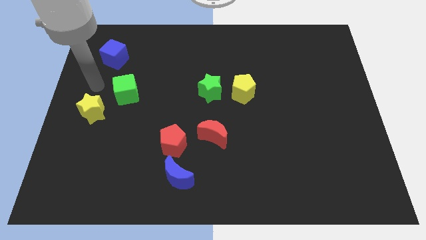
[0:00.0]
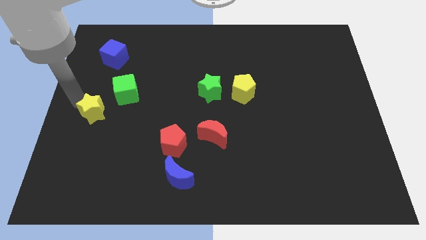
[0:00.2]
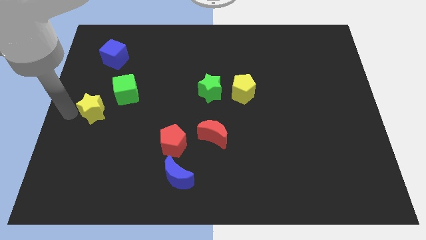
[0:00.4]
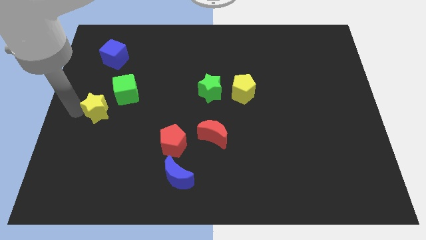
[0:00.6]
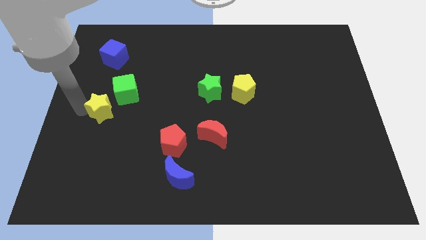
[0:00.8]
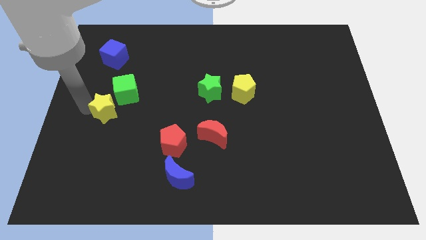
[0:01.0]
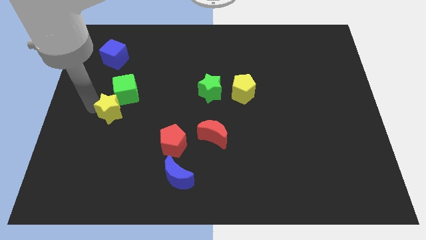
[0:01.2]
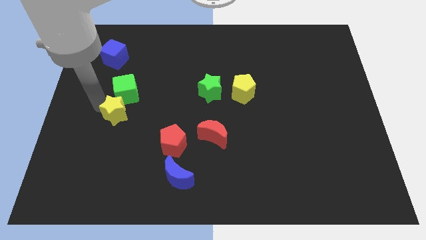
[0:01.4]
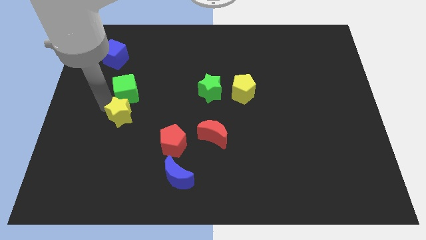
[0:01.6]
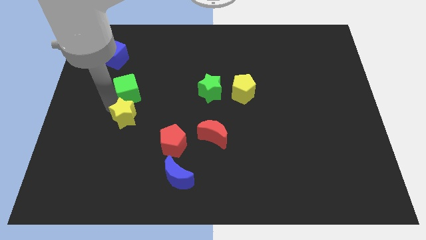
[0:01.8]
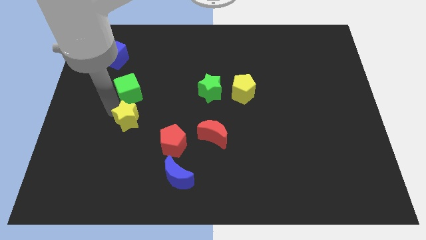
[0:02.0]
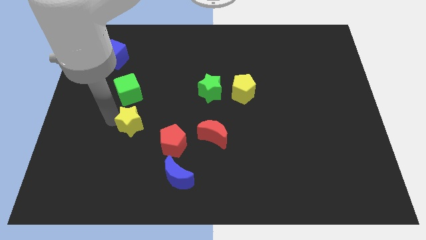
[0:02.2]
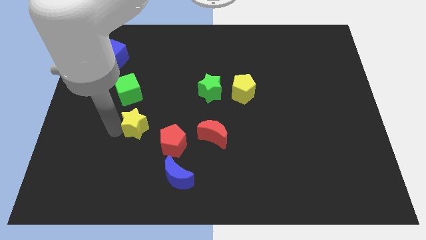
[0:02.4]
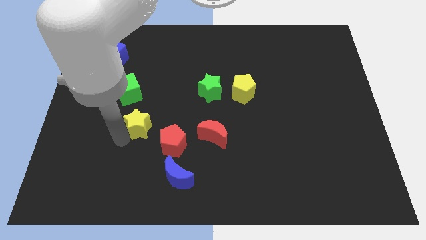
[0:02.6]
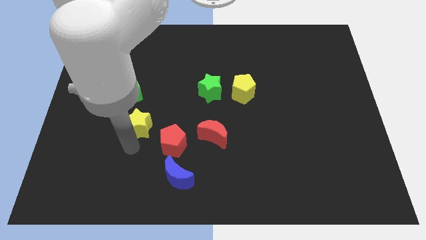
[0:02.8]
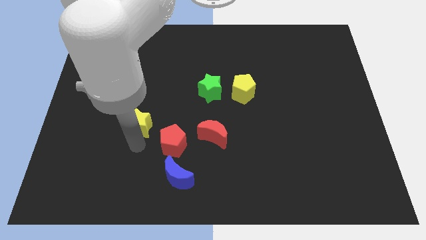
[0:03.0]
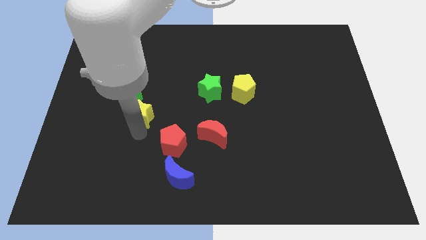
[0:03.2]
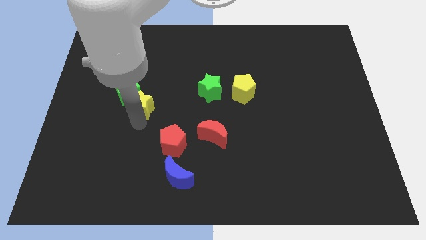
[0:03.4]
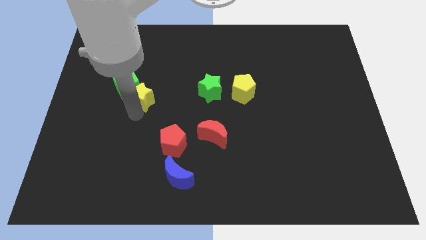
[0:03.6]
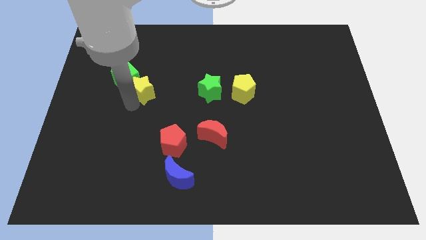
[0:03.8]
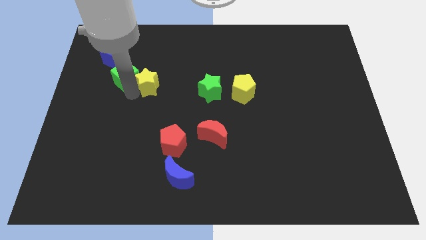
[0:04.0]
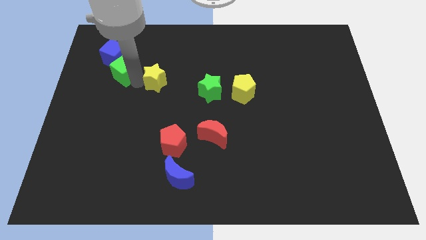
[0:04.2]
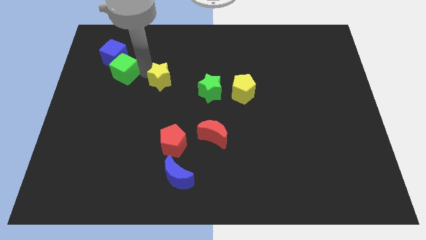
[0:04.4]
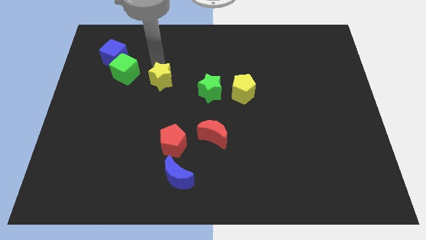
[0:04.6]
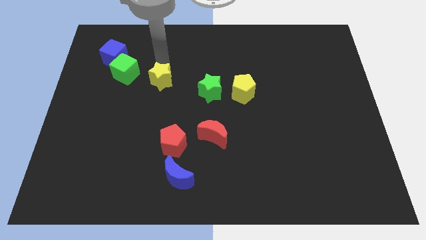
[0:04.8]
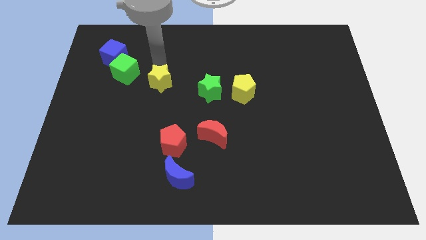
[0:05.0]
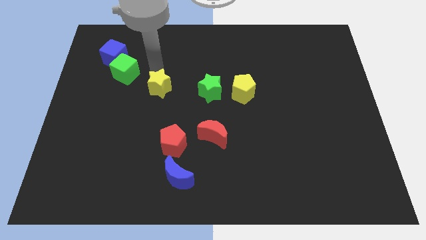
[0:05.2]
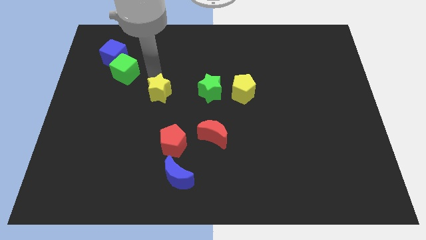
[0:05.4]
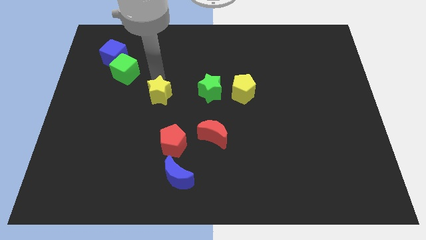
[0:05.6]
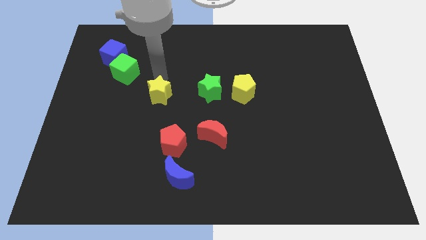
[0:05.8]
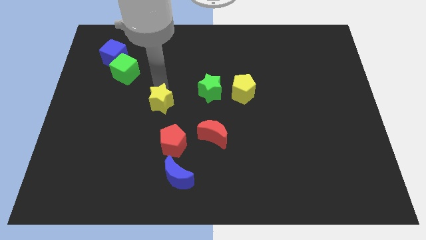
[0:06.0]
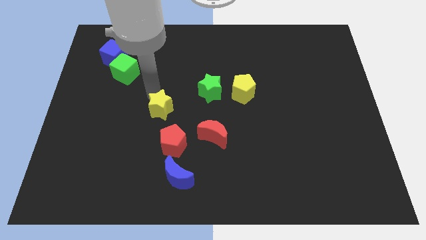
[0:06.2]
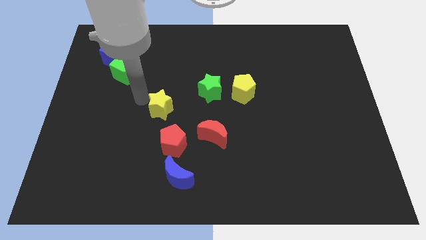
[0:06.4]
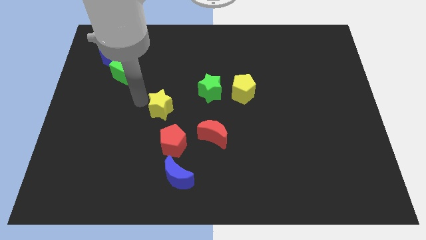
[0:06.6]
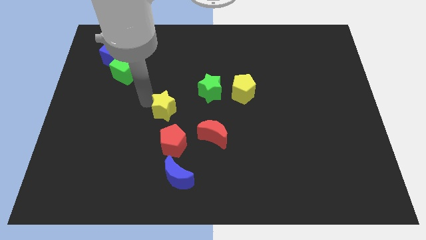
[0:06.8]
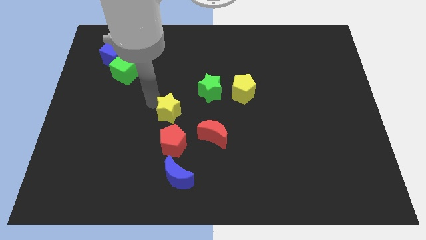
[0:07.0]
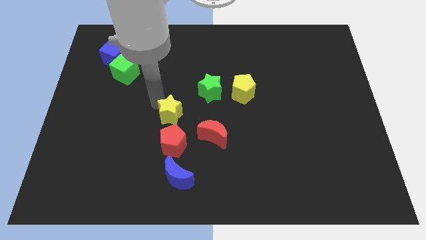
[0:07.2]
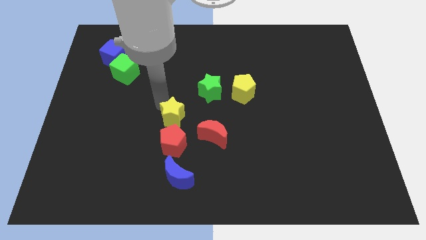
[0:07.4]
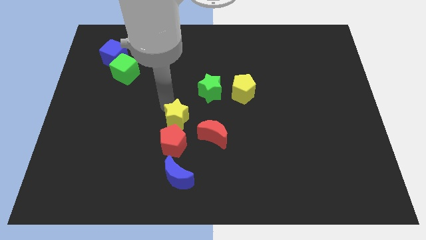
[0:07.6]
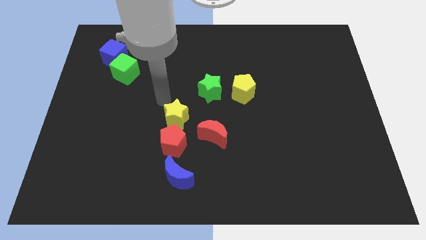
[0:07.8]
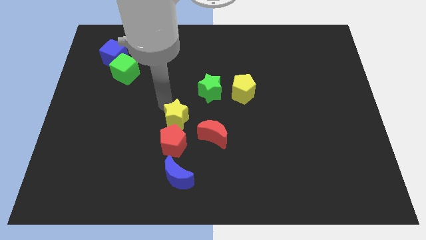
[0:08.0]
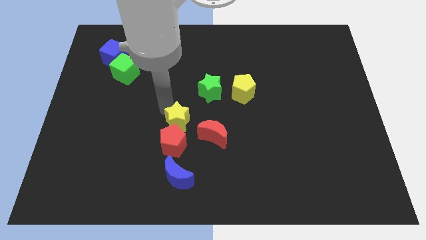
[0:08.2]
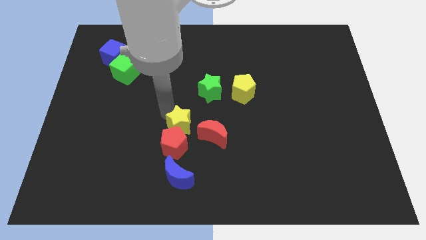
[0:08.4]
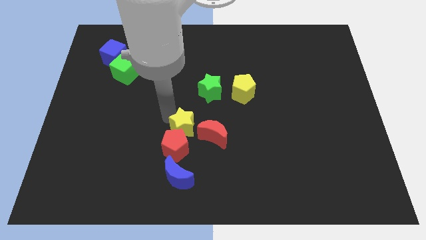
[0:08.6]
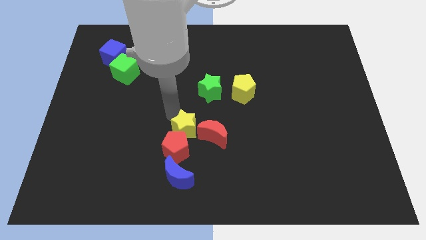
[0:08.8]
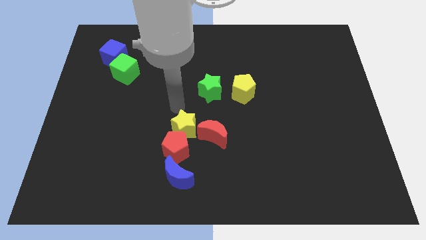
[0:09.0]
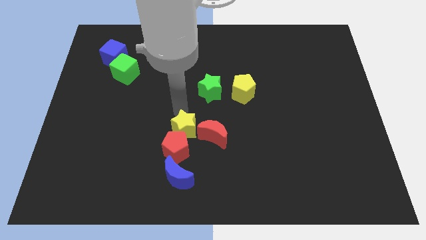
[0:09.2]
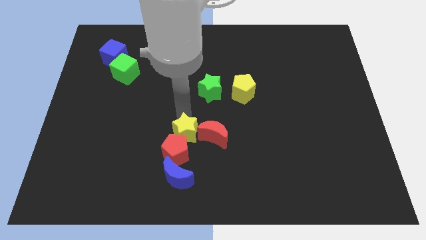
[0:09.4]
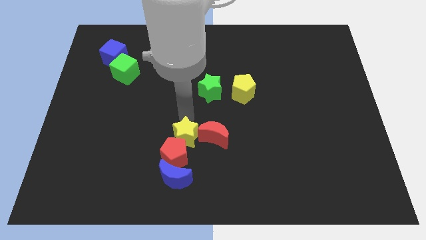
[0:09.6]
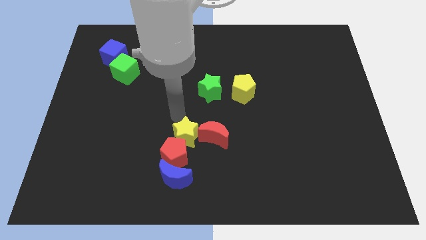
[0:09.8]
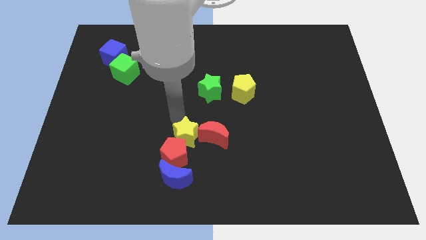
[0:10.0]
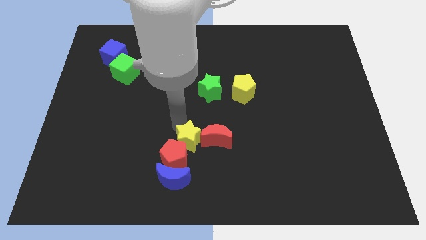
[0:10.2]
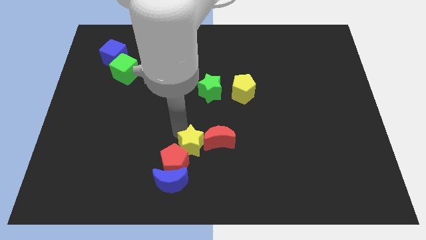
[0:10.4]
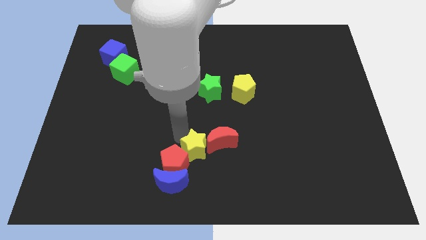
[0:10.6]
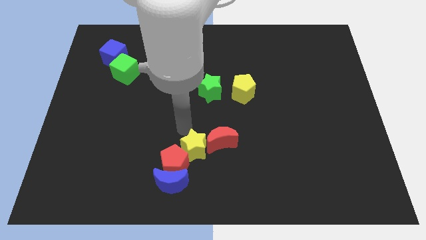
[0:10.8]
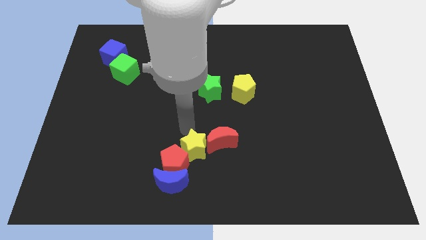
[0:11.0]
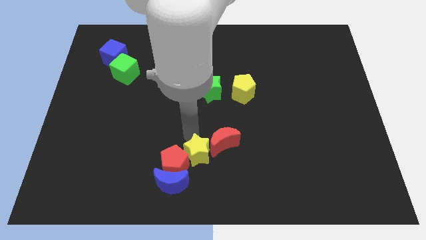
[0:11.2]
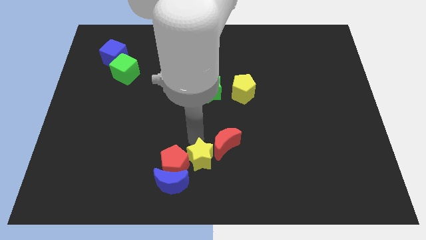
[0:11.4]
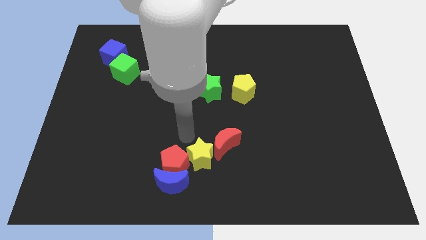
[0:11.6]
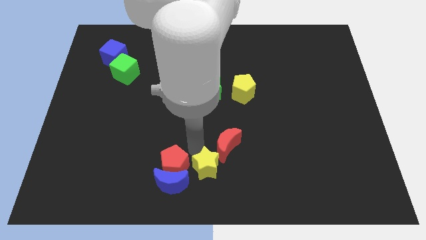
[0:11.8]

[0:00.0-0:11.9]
push the yellow star to the bottom of the red moon
